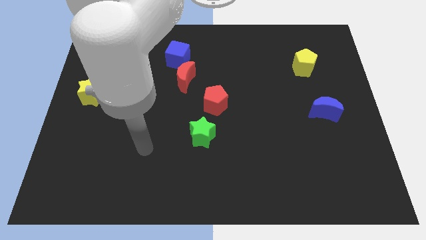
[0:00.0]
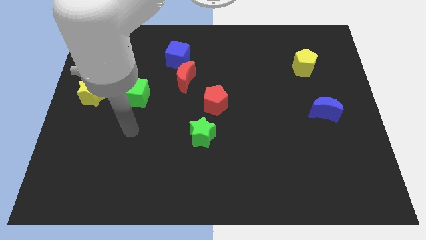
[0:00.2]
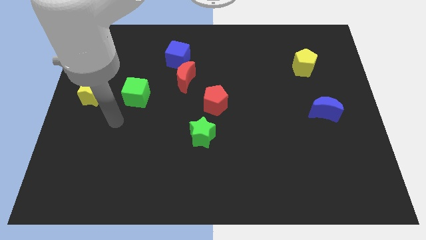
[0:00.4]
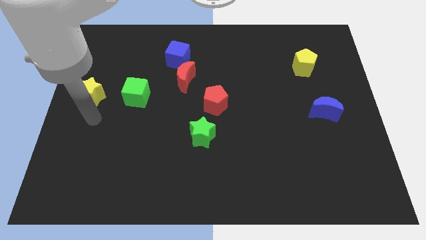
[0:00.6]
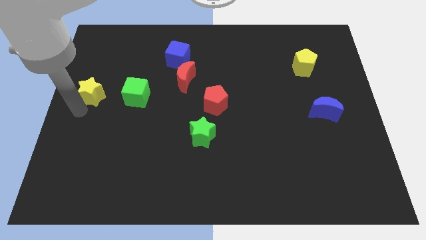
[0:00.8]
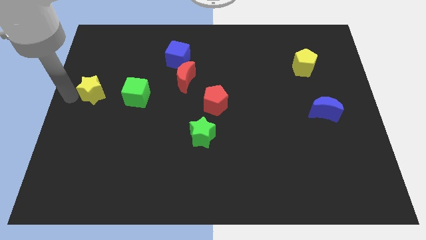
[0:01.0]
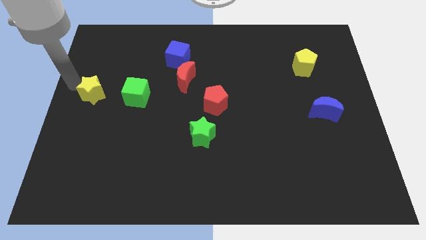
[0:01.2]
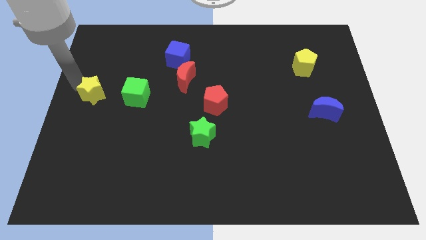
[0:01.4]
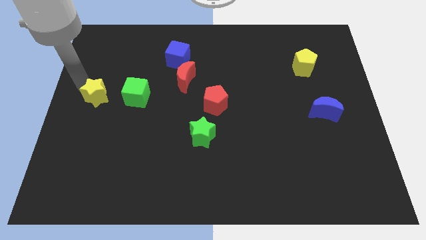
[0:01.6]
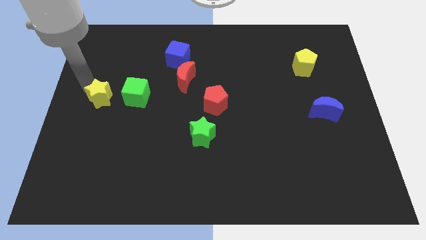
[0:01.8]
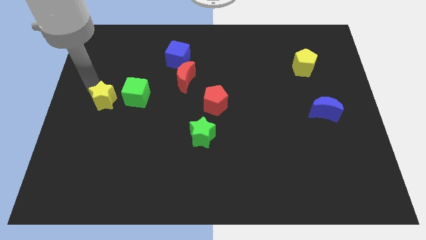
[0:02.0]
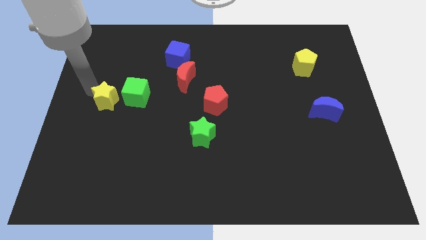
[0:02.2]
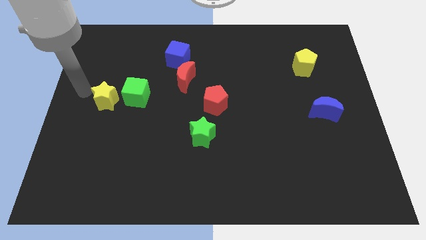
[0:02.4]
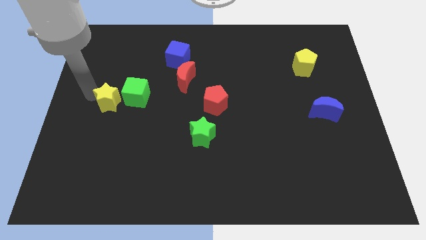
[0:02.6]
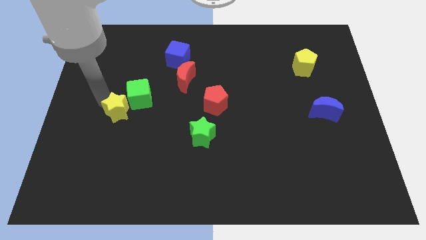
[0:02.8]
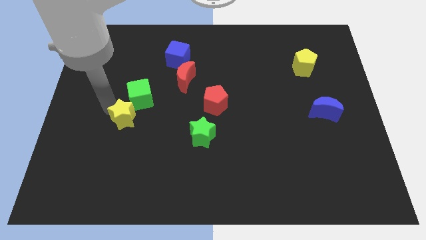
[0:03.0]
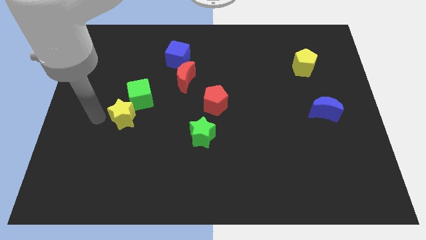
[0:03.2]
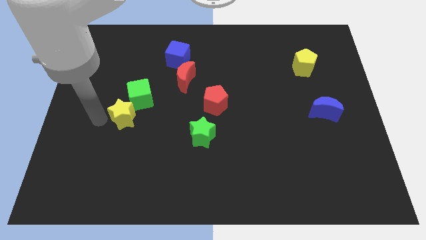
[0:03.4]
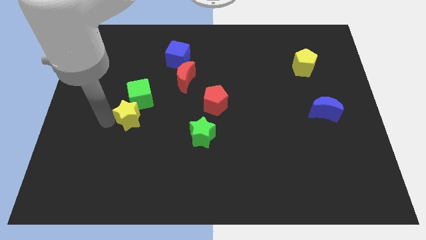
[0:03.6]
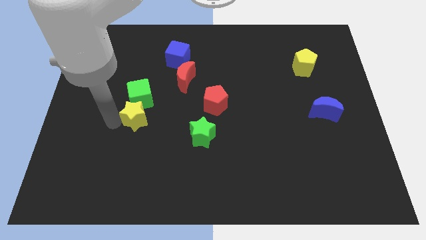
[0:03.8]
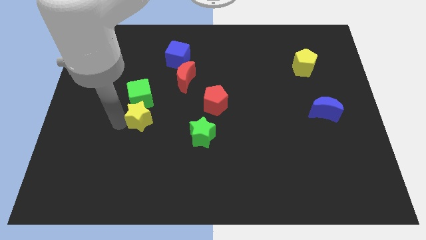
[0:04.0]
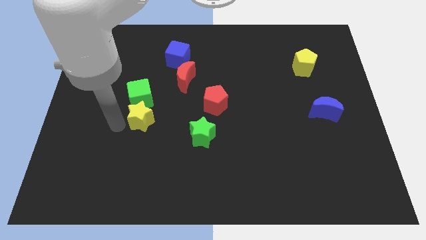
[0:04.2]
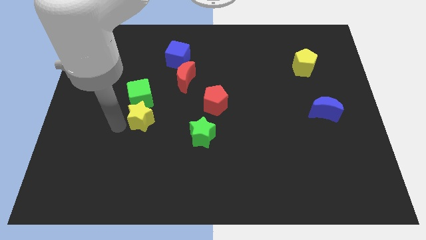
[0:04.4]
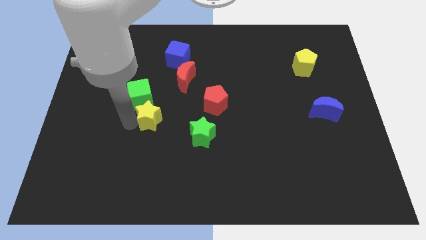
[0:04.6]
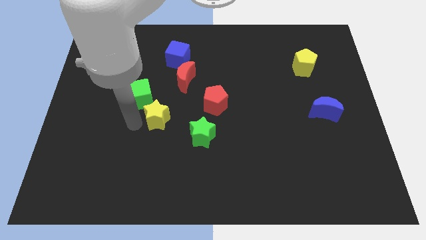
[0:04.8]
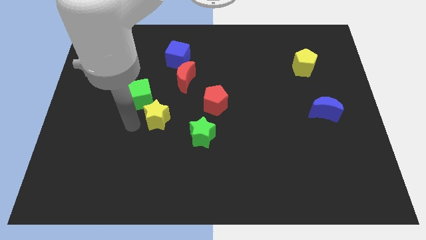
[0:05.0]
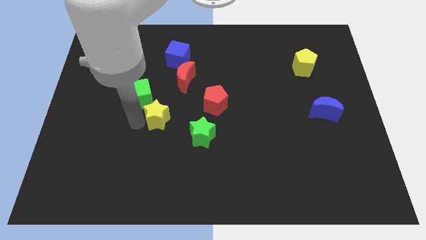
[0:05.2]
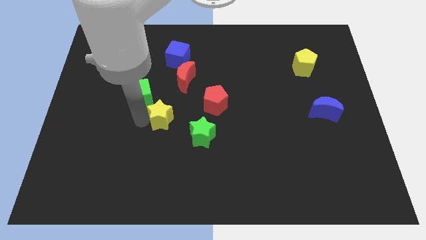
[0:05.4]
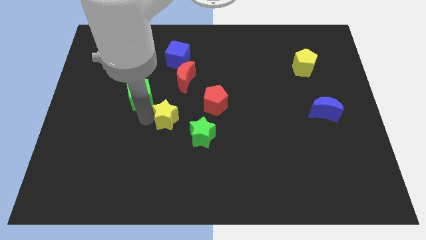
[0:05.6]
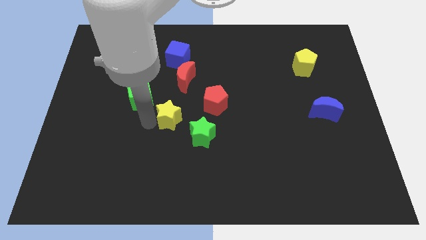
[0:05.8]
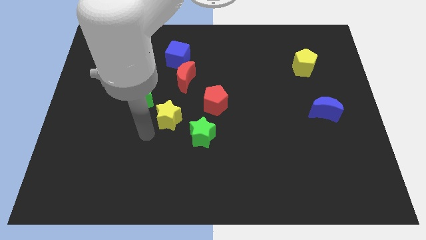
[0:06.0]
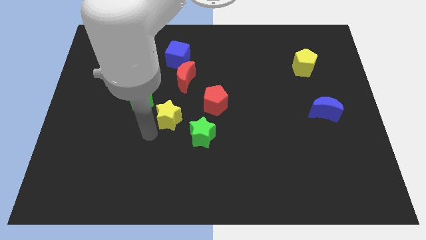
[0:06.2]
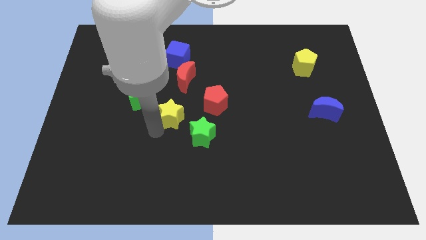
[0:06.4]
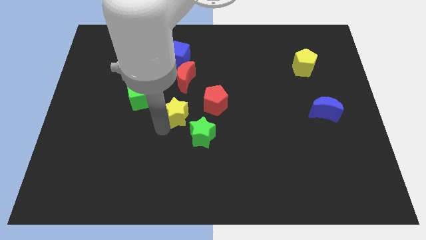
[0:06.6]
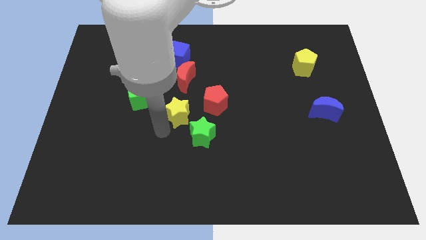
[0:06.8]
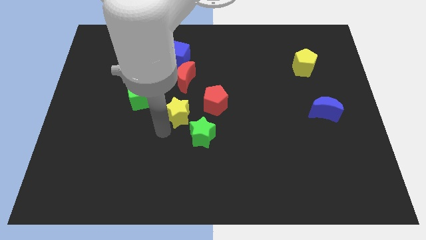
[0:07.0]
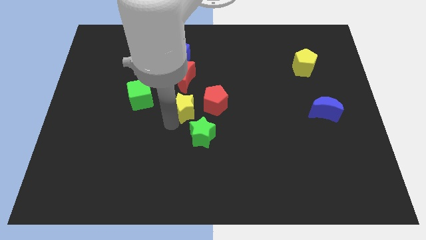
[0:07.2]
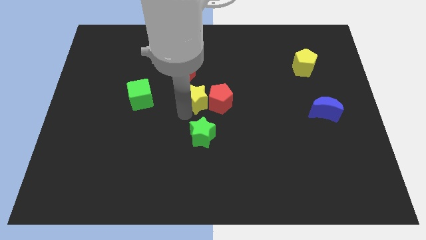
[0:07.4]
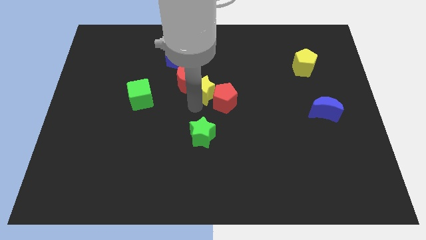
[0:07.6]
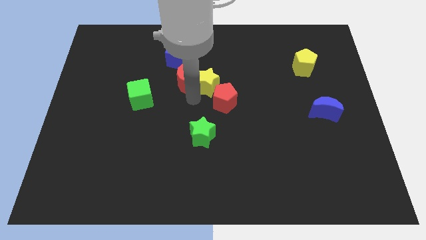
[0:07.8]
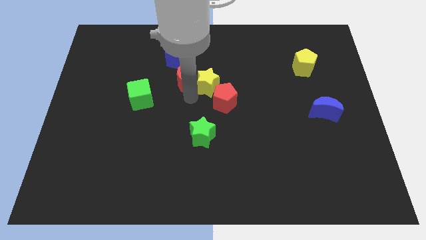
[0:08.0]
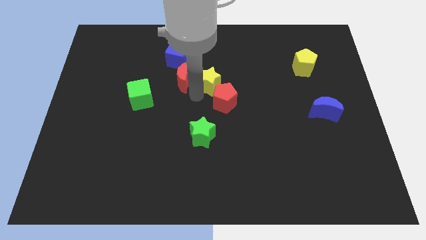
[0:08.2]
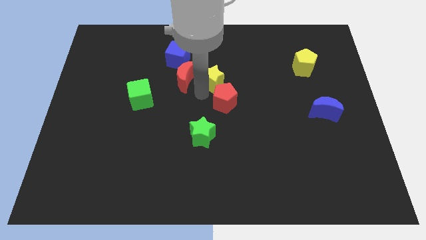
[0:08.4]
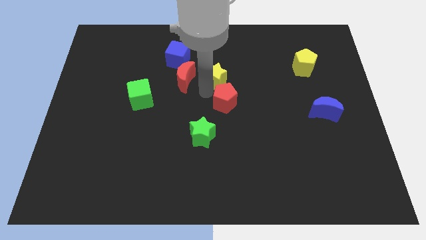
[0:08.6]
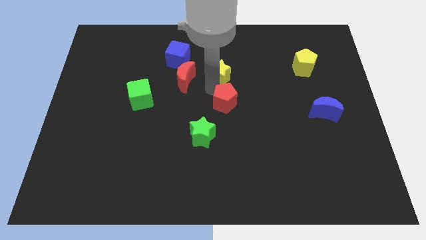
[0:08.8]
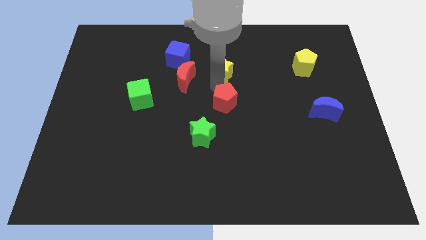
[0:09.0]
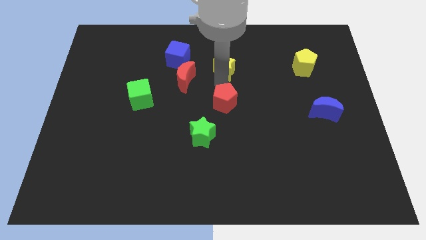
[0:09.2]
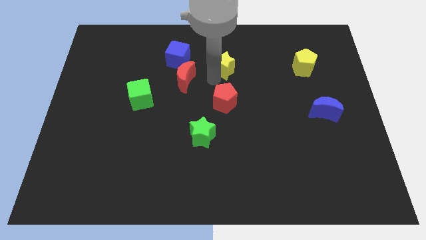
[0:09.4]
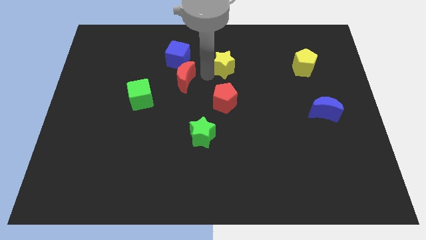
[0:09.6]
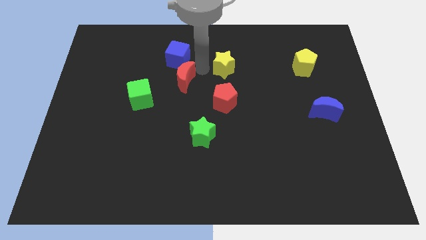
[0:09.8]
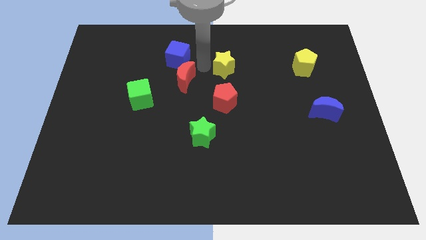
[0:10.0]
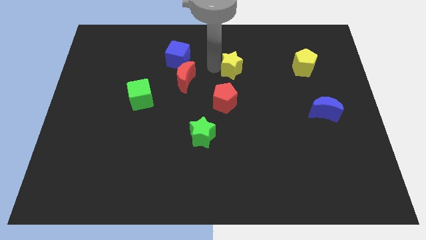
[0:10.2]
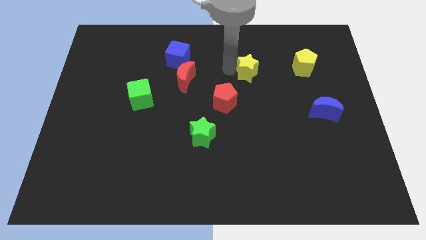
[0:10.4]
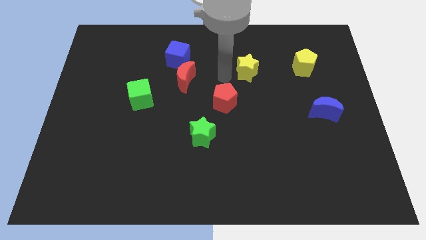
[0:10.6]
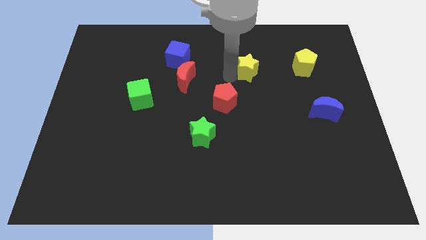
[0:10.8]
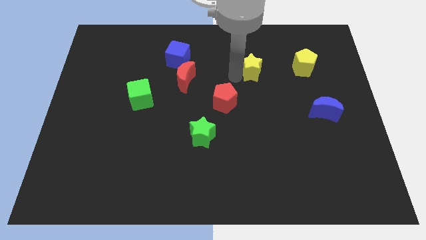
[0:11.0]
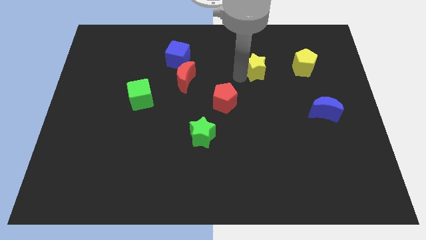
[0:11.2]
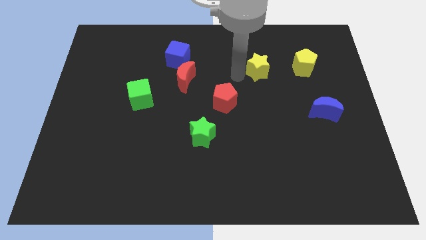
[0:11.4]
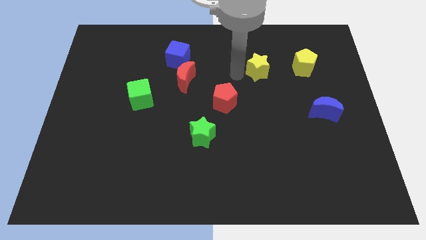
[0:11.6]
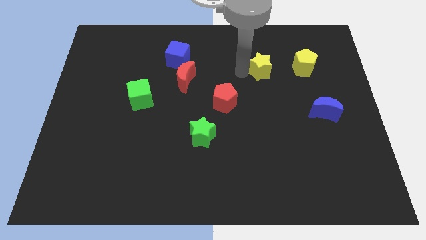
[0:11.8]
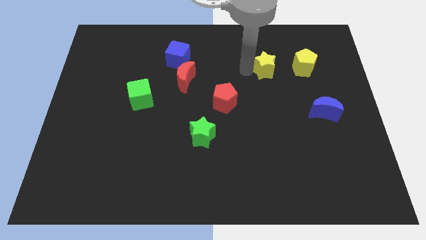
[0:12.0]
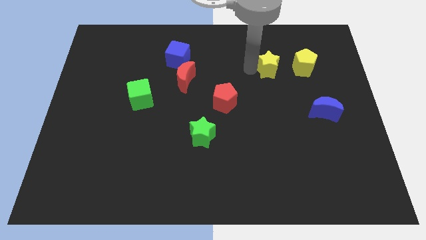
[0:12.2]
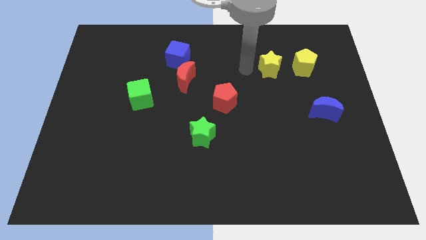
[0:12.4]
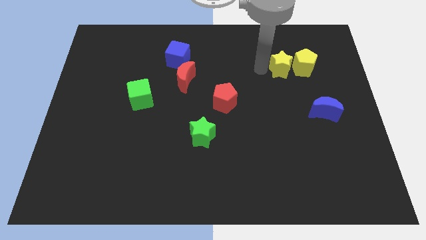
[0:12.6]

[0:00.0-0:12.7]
slide the yellow star to the yellow pentagon
